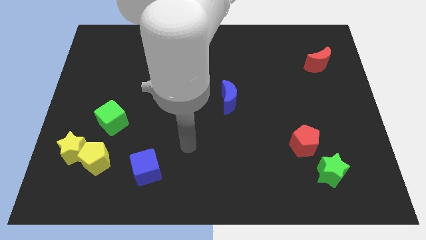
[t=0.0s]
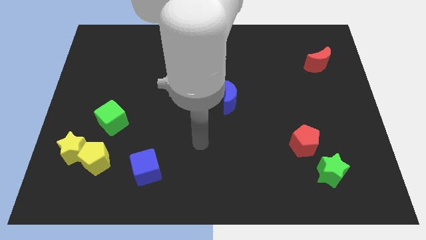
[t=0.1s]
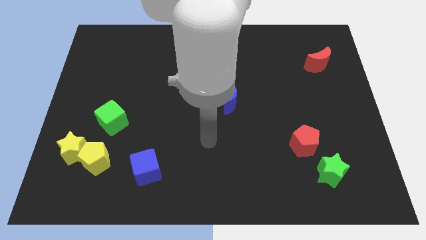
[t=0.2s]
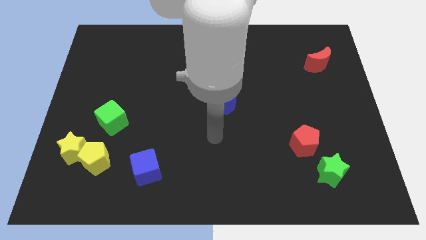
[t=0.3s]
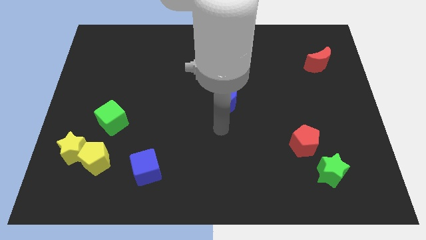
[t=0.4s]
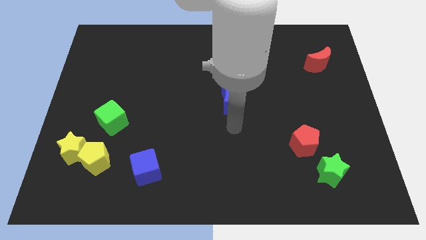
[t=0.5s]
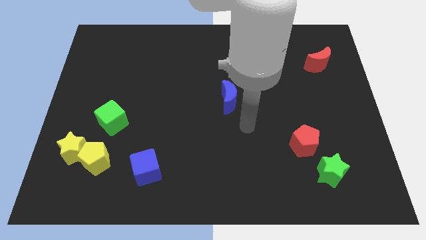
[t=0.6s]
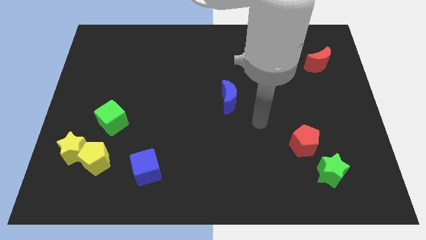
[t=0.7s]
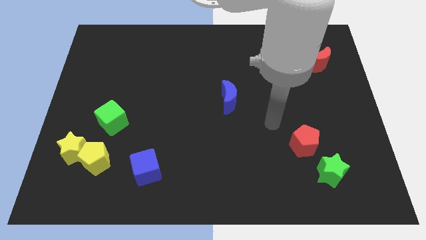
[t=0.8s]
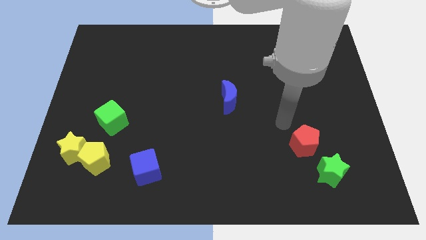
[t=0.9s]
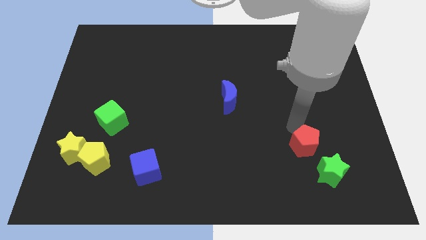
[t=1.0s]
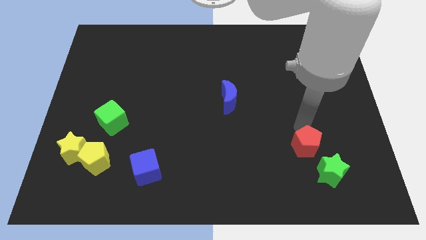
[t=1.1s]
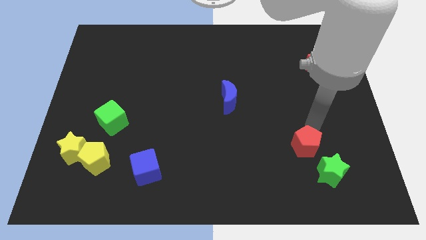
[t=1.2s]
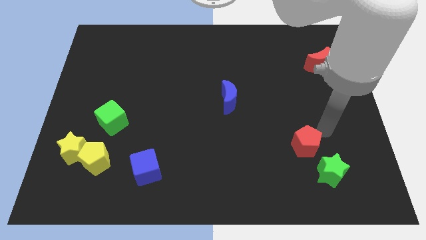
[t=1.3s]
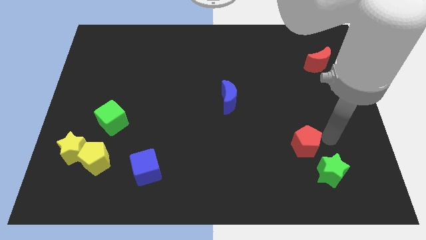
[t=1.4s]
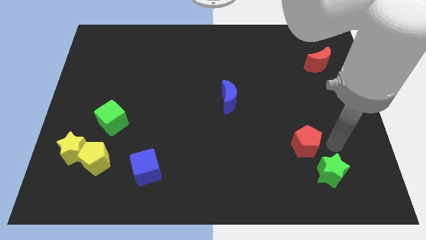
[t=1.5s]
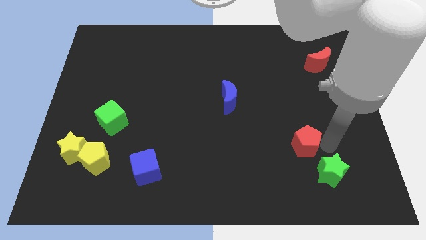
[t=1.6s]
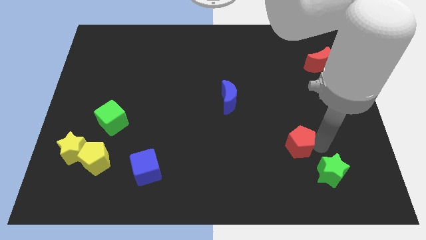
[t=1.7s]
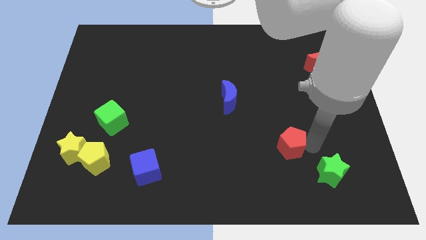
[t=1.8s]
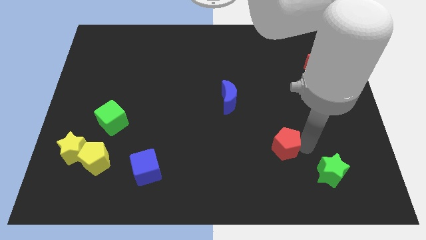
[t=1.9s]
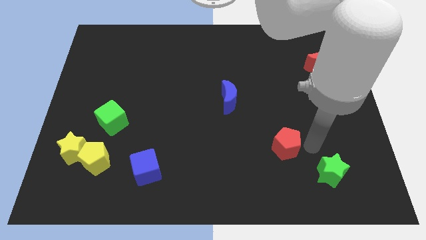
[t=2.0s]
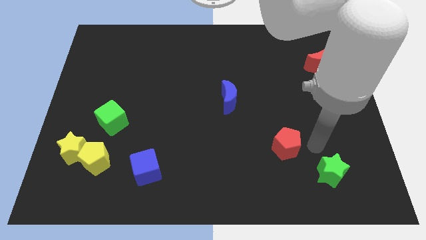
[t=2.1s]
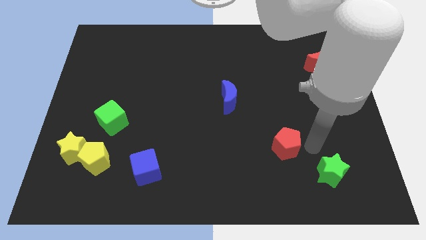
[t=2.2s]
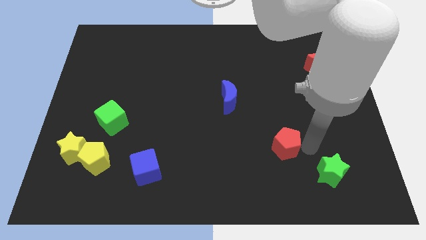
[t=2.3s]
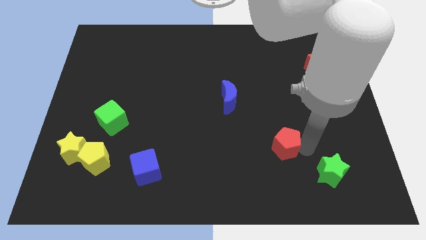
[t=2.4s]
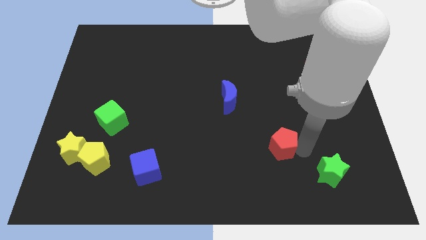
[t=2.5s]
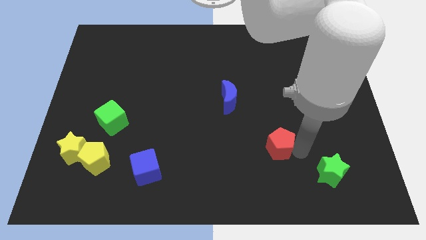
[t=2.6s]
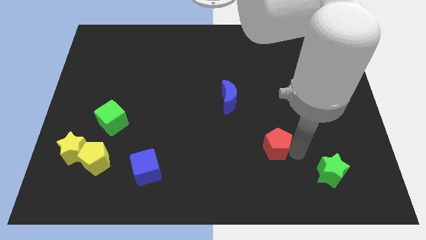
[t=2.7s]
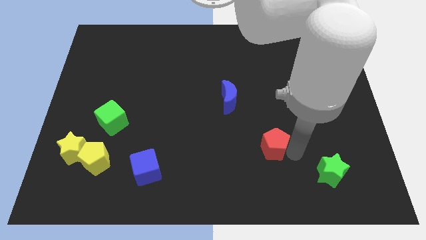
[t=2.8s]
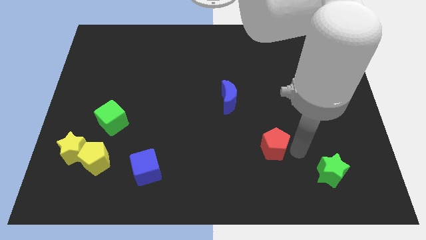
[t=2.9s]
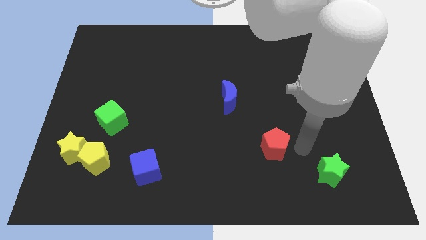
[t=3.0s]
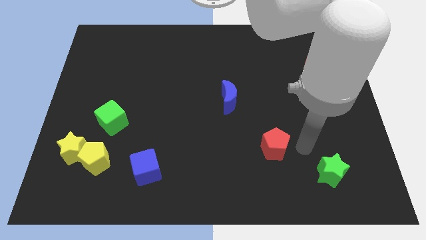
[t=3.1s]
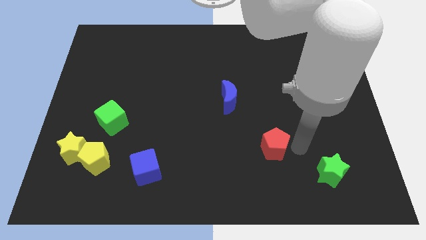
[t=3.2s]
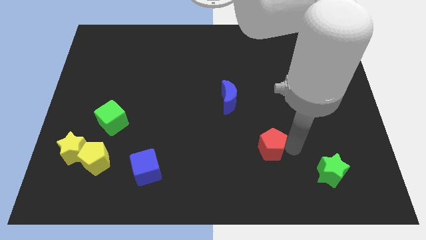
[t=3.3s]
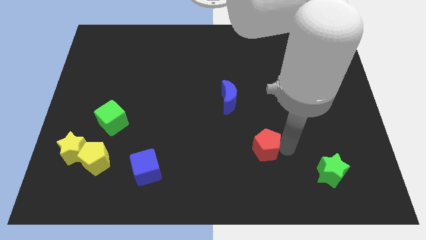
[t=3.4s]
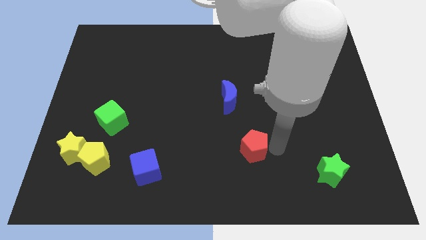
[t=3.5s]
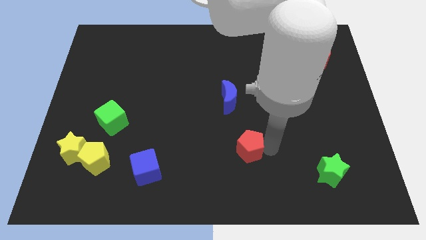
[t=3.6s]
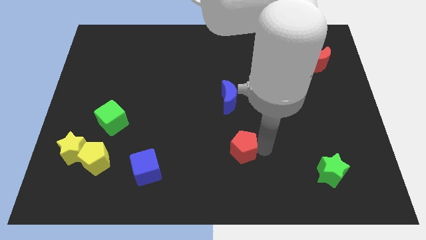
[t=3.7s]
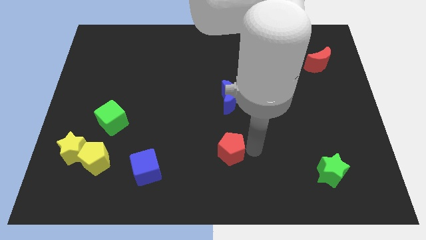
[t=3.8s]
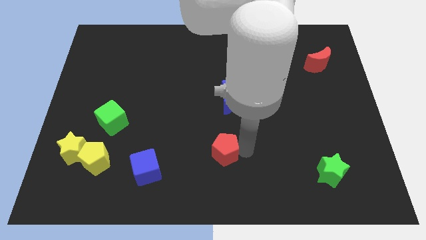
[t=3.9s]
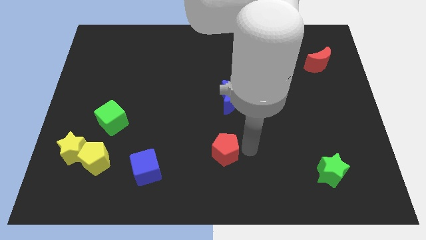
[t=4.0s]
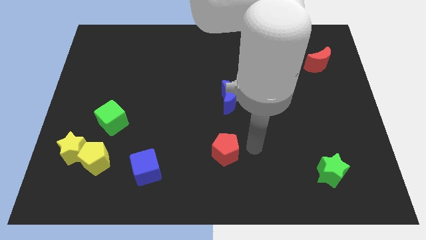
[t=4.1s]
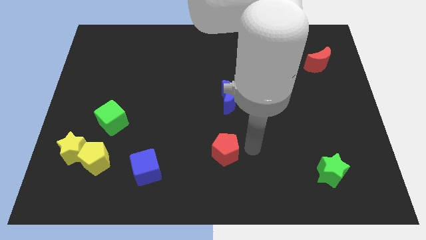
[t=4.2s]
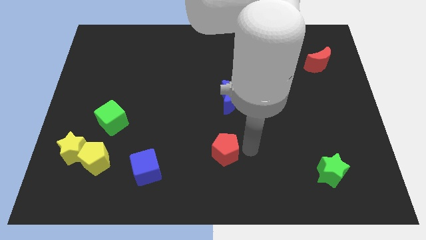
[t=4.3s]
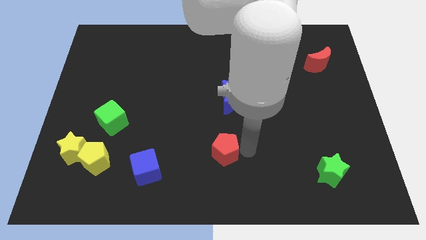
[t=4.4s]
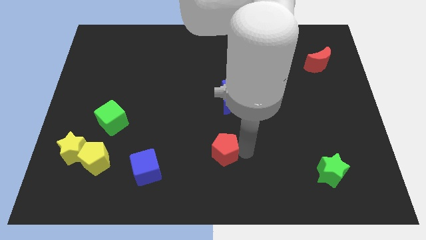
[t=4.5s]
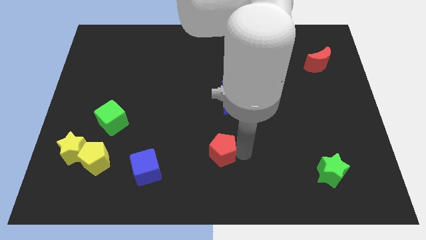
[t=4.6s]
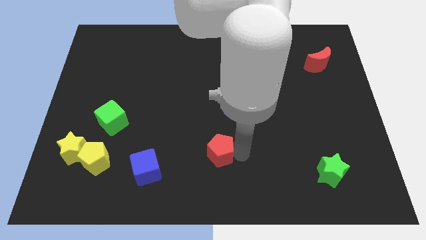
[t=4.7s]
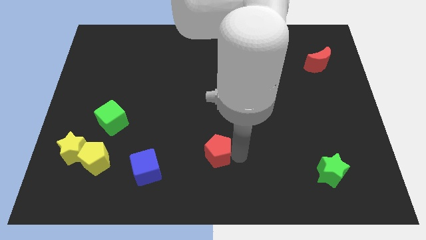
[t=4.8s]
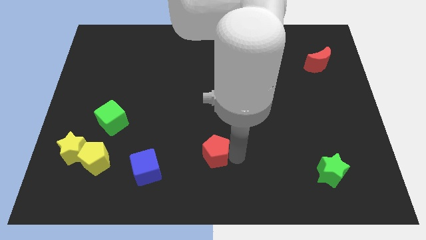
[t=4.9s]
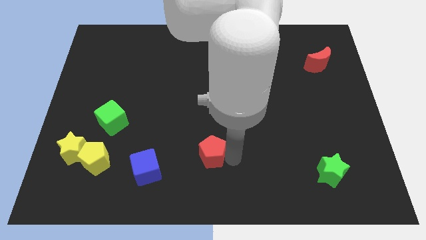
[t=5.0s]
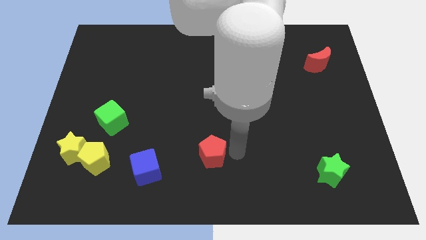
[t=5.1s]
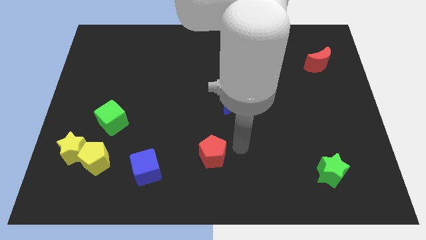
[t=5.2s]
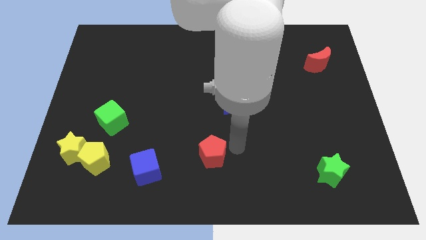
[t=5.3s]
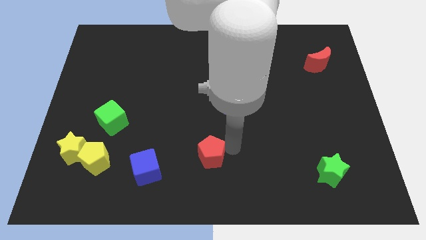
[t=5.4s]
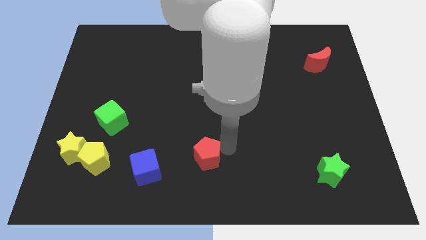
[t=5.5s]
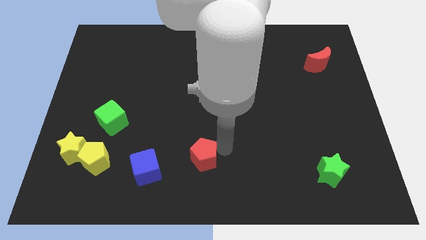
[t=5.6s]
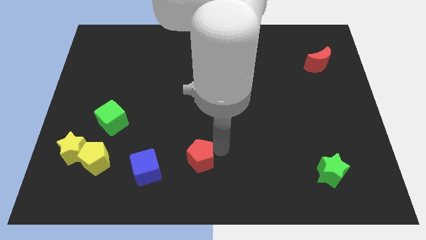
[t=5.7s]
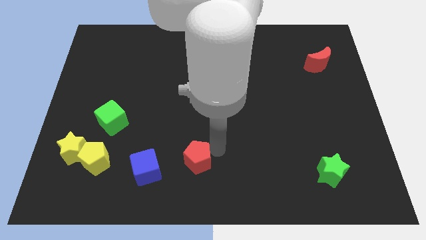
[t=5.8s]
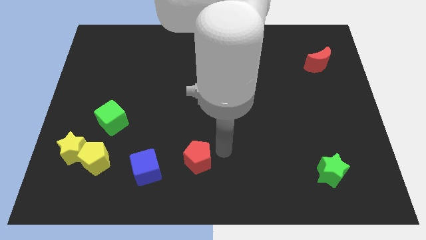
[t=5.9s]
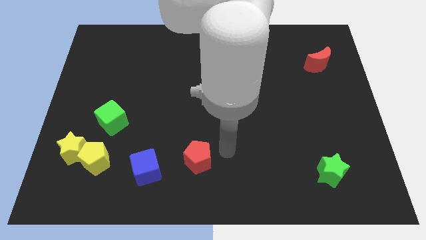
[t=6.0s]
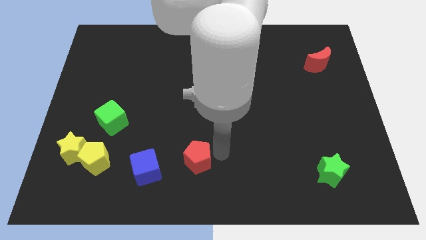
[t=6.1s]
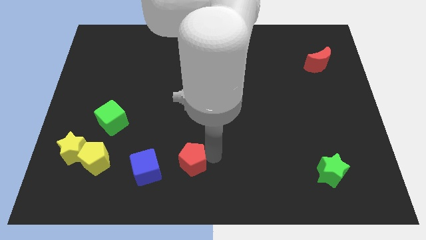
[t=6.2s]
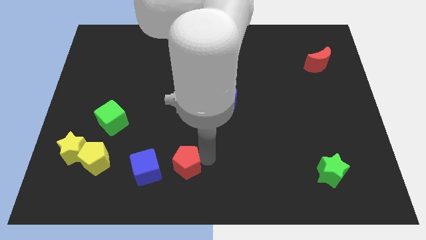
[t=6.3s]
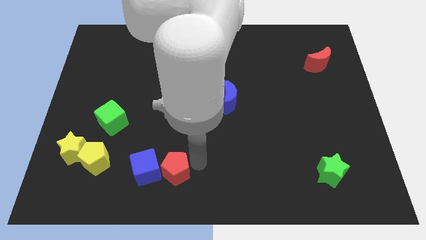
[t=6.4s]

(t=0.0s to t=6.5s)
slide the red pentagon close to the blue cube

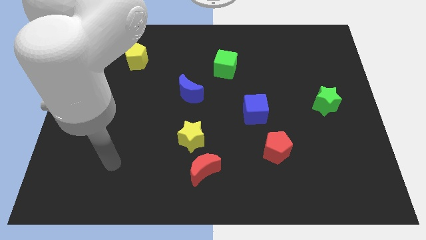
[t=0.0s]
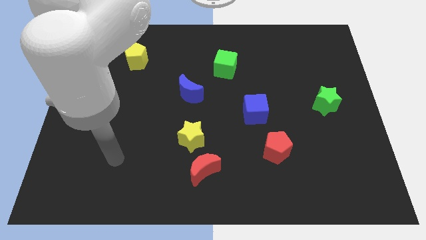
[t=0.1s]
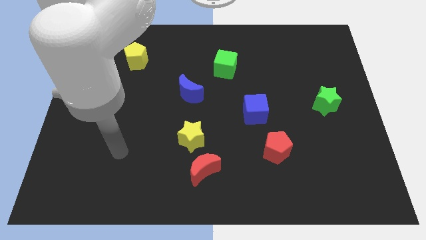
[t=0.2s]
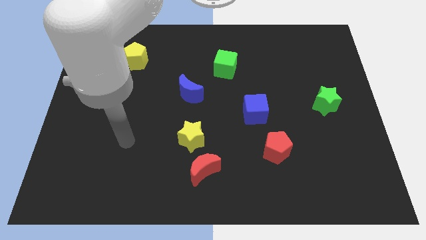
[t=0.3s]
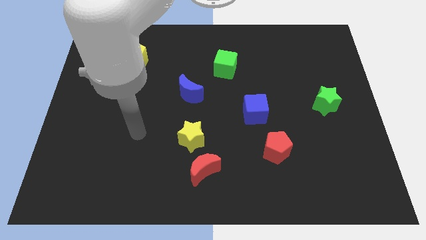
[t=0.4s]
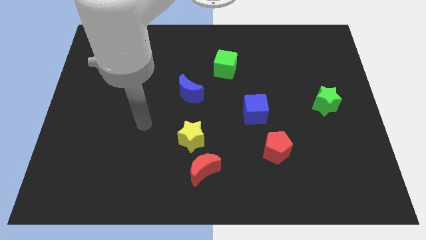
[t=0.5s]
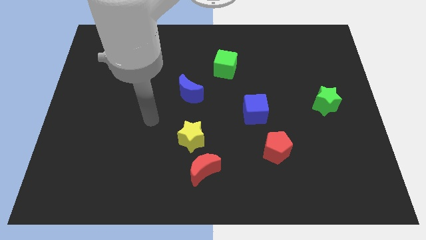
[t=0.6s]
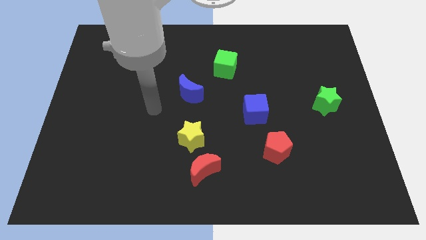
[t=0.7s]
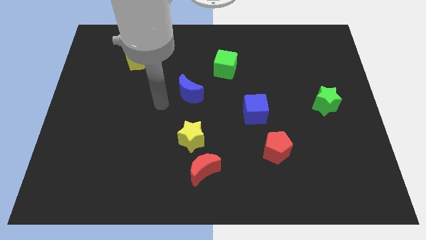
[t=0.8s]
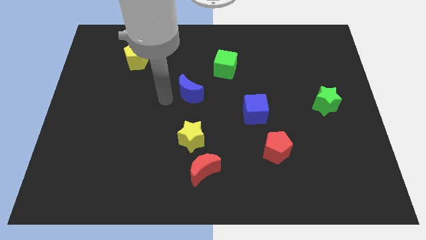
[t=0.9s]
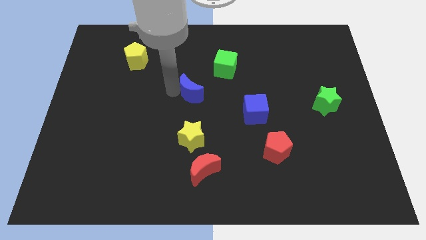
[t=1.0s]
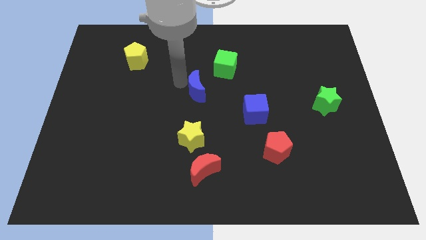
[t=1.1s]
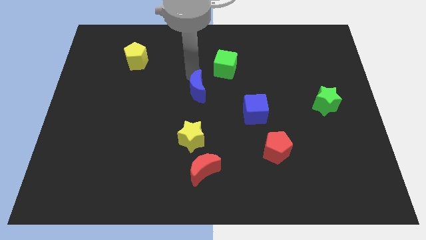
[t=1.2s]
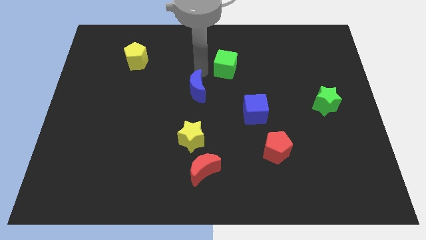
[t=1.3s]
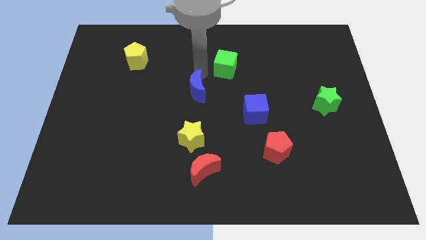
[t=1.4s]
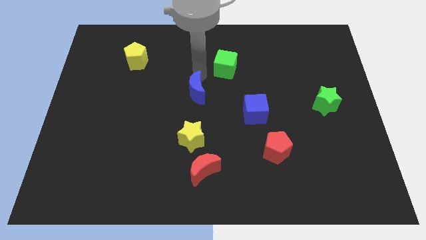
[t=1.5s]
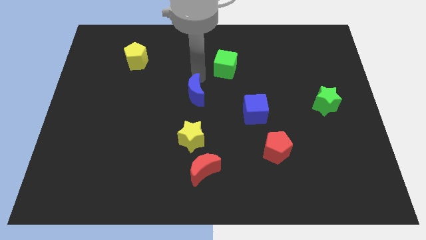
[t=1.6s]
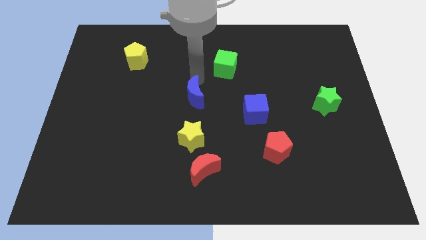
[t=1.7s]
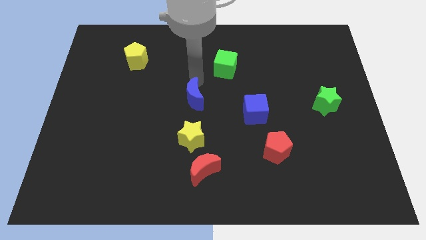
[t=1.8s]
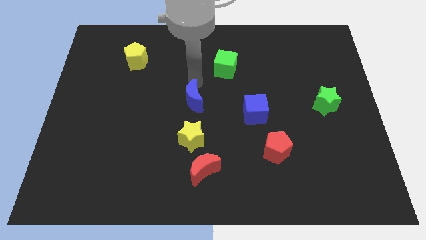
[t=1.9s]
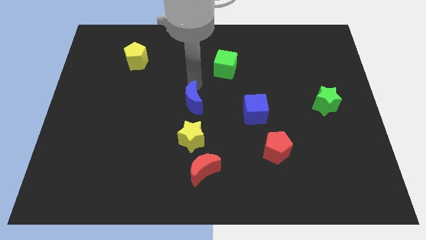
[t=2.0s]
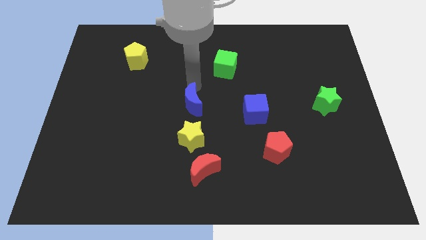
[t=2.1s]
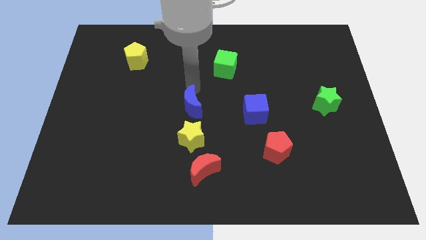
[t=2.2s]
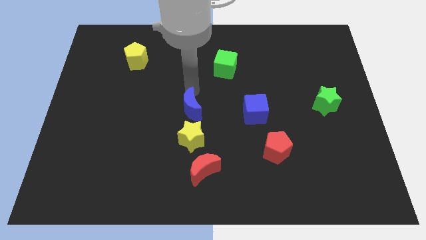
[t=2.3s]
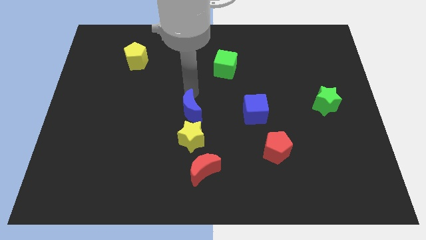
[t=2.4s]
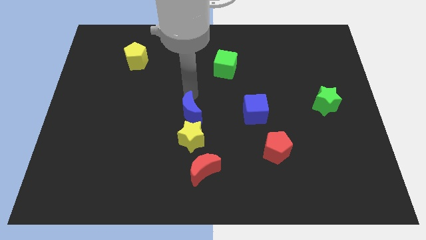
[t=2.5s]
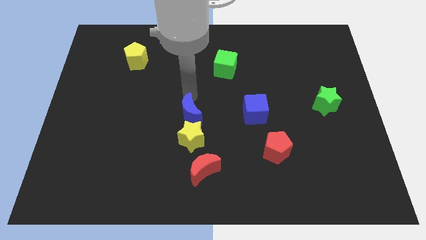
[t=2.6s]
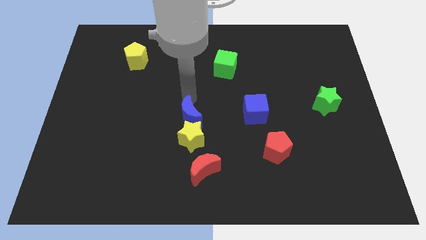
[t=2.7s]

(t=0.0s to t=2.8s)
put the blue moon next to the yellow star
